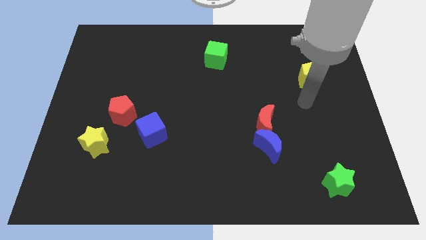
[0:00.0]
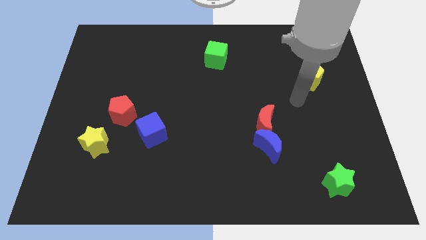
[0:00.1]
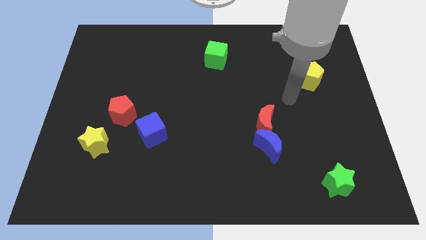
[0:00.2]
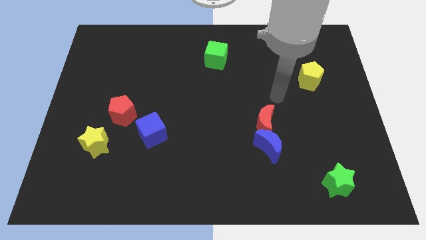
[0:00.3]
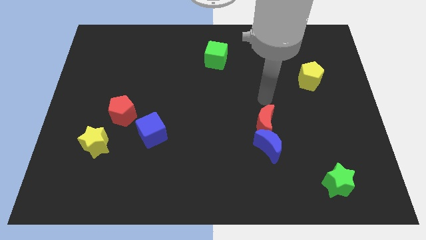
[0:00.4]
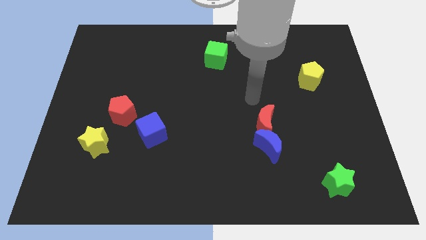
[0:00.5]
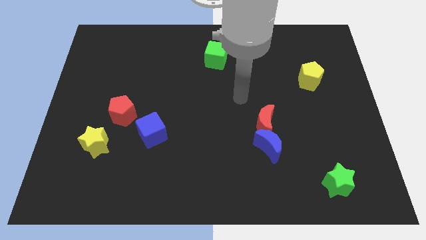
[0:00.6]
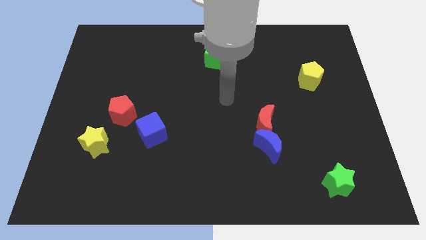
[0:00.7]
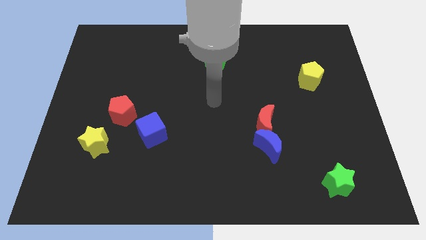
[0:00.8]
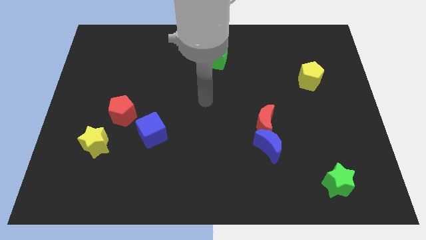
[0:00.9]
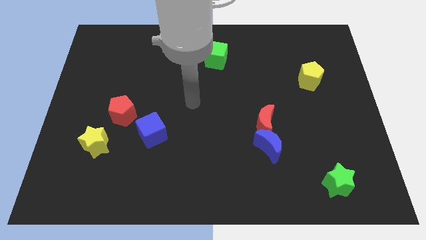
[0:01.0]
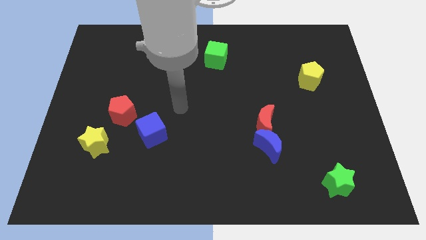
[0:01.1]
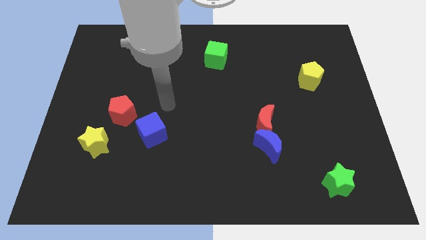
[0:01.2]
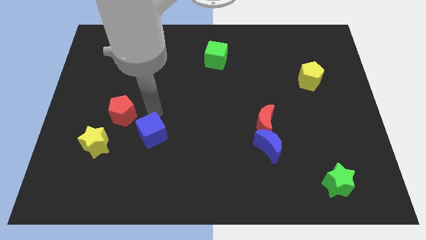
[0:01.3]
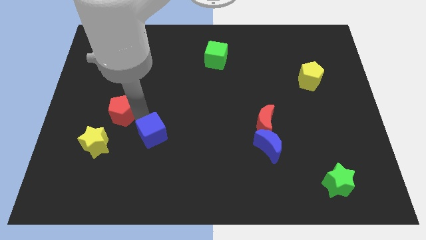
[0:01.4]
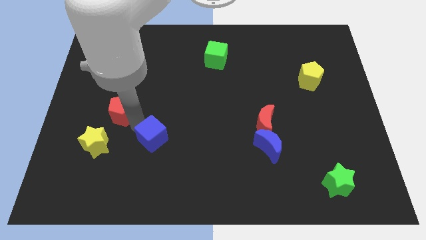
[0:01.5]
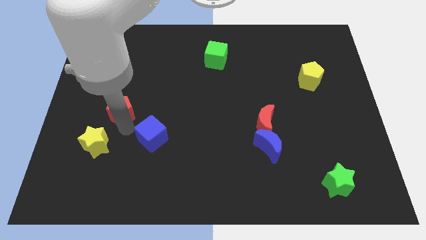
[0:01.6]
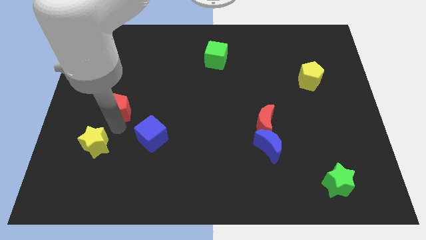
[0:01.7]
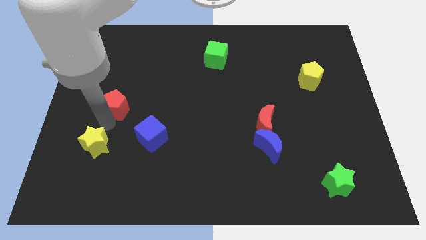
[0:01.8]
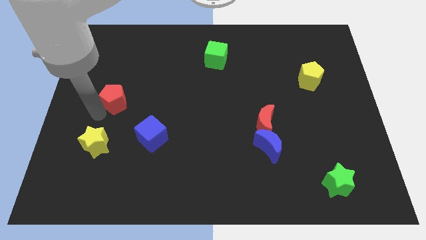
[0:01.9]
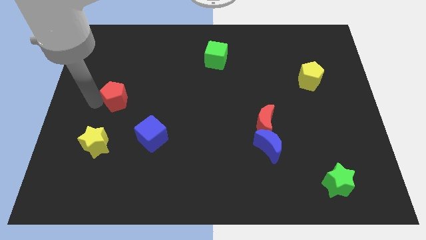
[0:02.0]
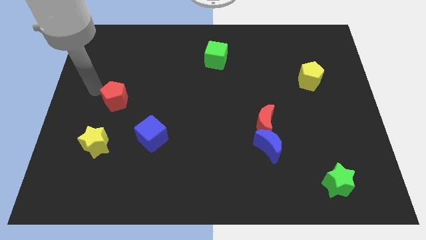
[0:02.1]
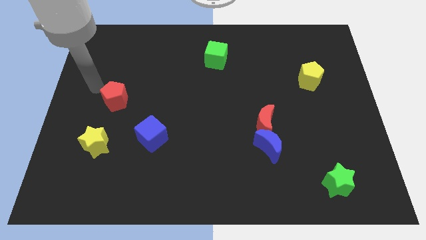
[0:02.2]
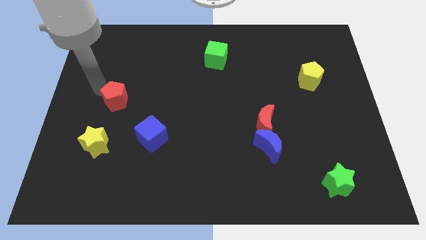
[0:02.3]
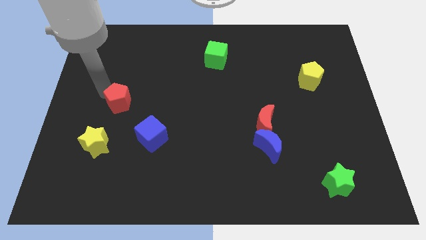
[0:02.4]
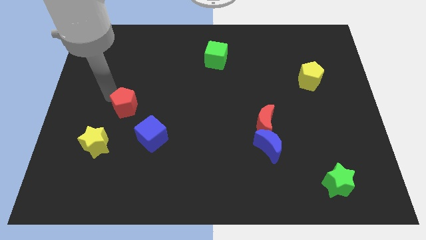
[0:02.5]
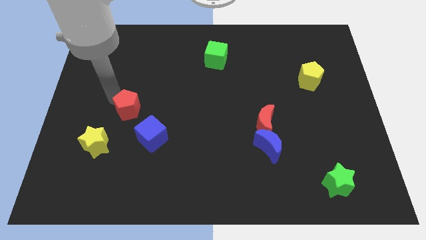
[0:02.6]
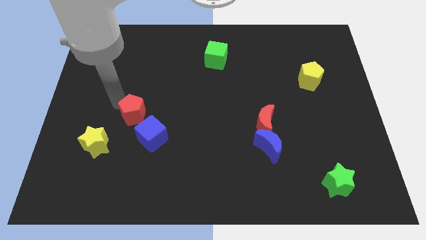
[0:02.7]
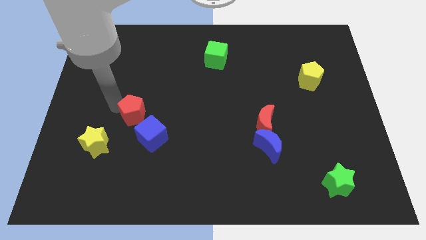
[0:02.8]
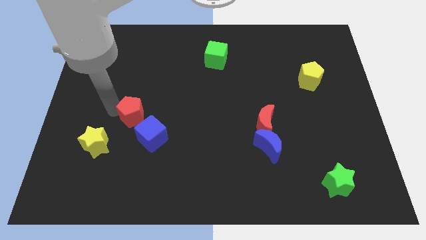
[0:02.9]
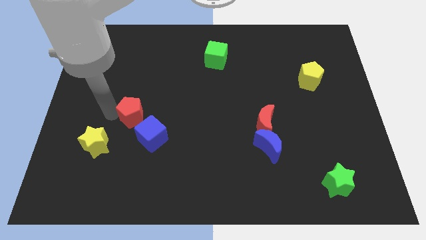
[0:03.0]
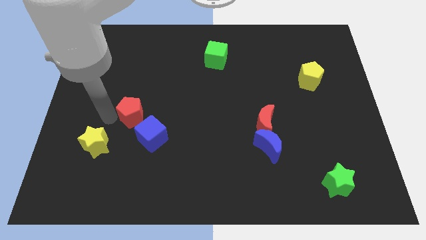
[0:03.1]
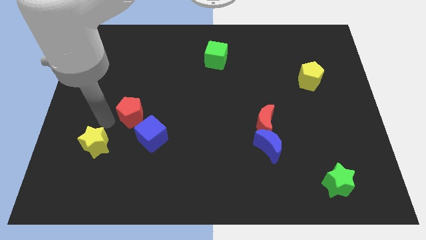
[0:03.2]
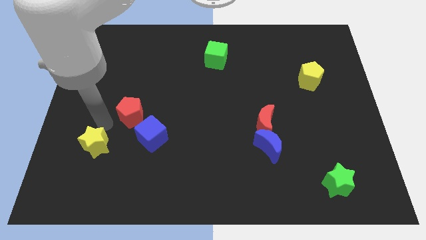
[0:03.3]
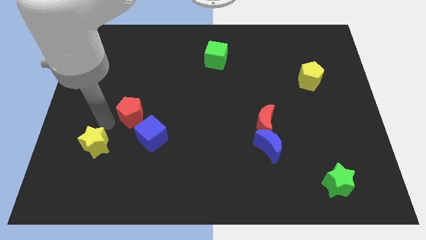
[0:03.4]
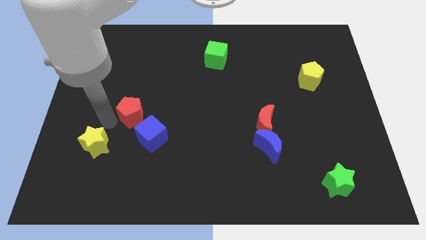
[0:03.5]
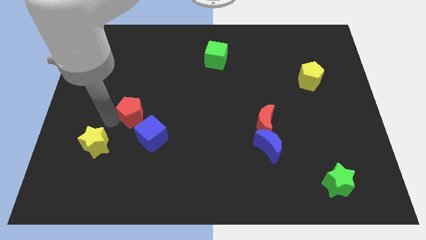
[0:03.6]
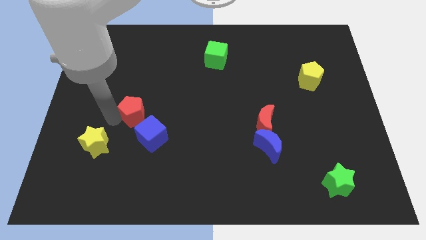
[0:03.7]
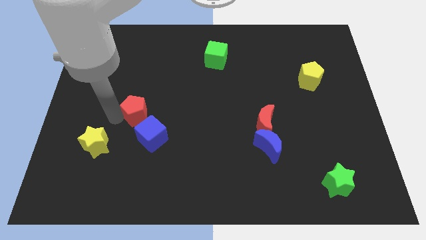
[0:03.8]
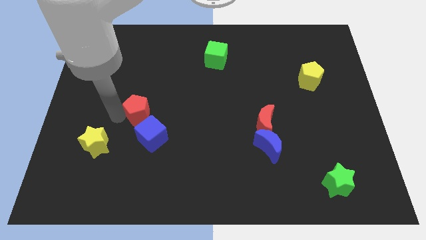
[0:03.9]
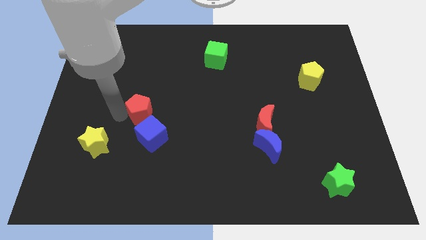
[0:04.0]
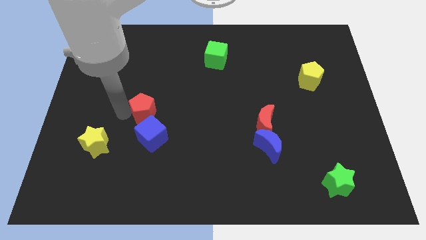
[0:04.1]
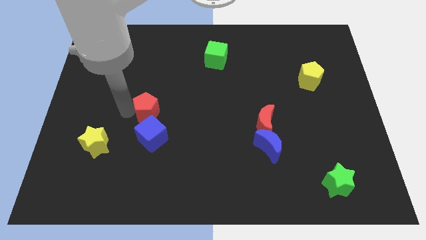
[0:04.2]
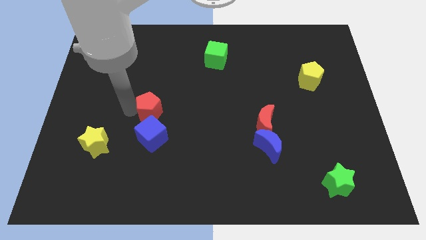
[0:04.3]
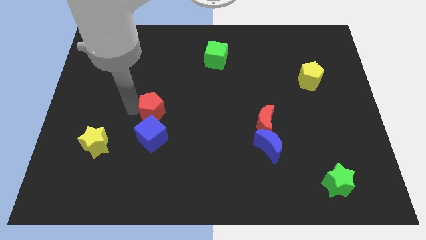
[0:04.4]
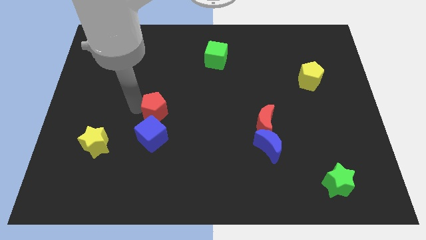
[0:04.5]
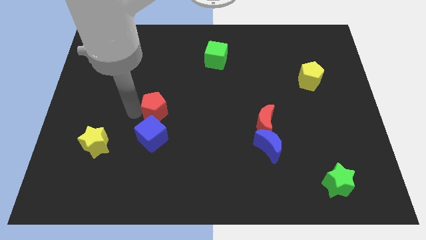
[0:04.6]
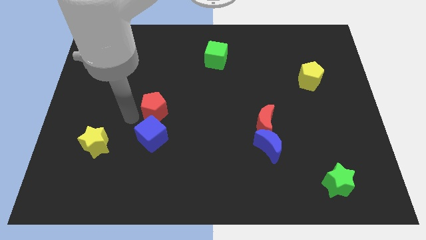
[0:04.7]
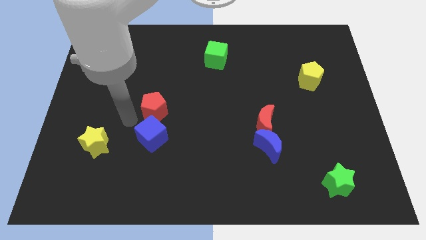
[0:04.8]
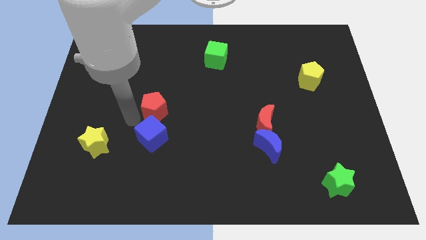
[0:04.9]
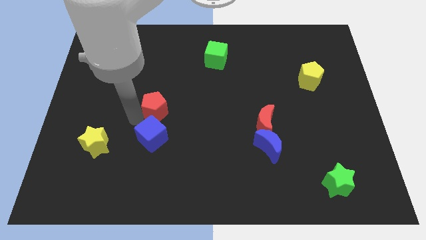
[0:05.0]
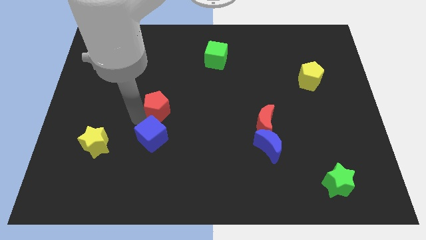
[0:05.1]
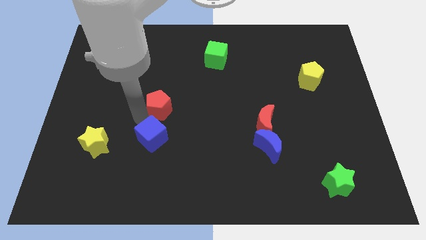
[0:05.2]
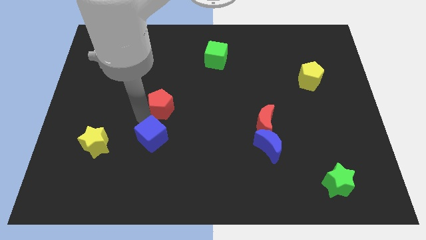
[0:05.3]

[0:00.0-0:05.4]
slide the red pentagon to the middle of the board
